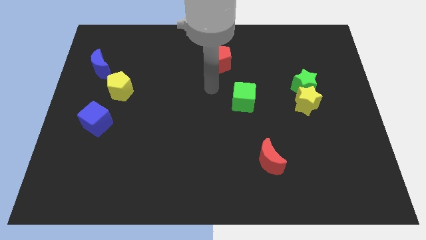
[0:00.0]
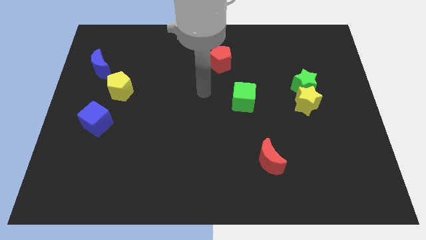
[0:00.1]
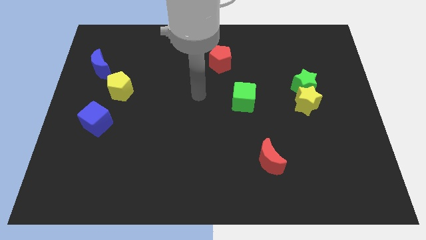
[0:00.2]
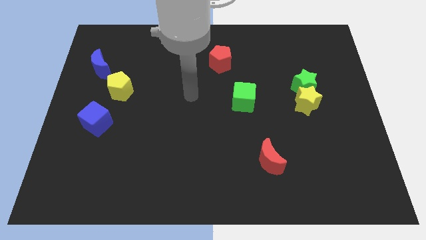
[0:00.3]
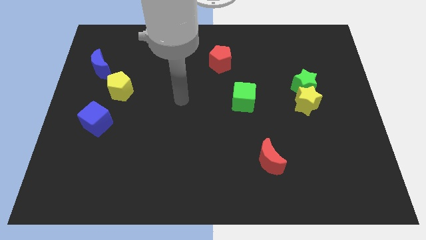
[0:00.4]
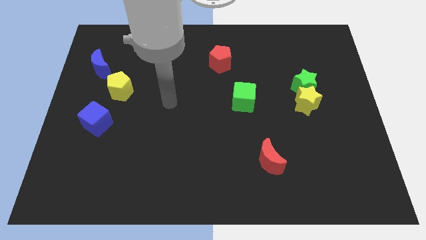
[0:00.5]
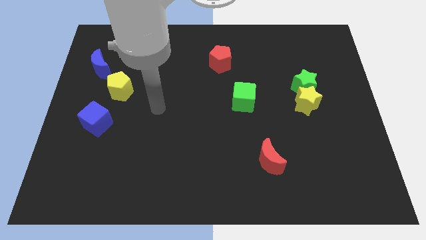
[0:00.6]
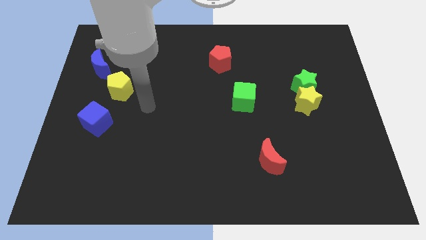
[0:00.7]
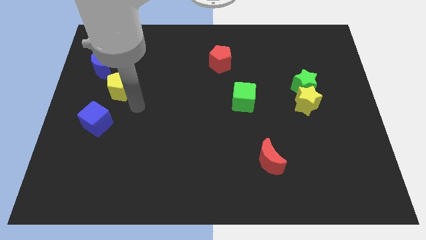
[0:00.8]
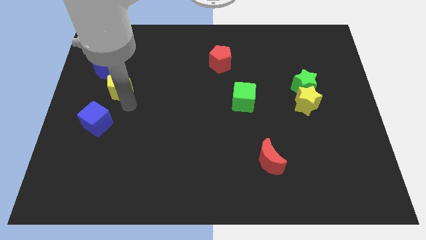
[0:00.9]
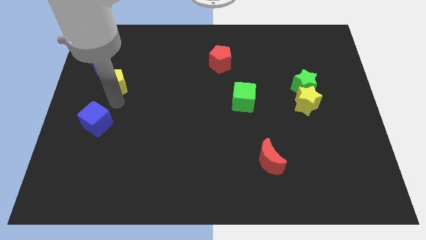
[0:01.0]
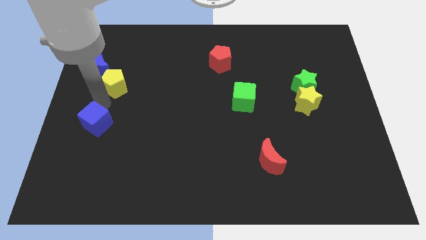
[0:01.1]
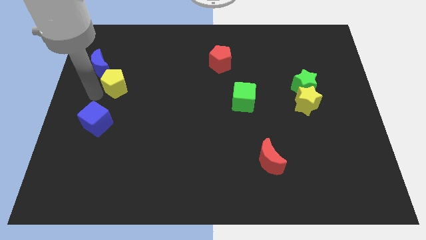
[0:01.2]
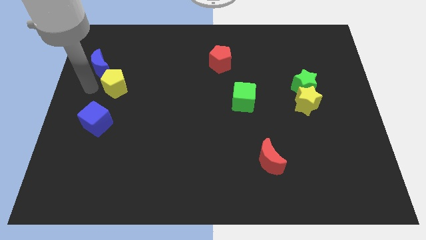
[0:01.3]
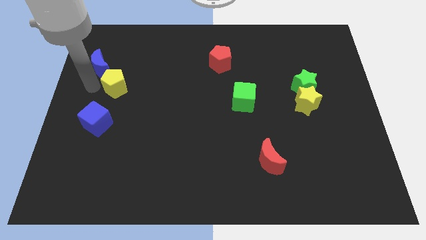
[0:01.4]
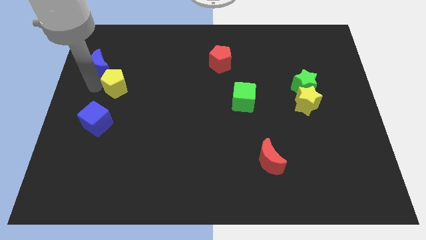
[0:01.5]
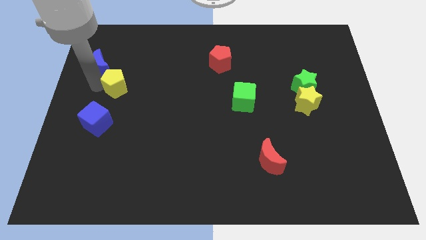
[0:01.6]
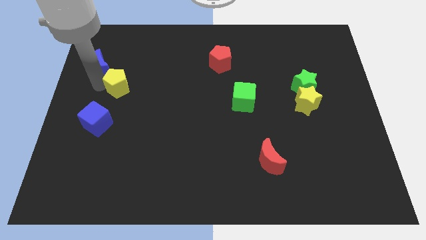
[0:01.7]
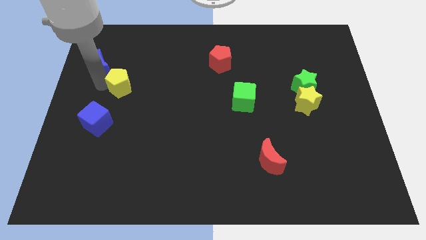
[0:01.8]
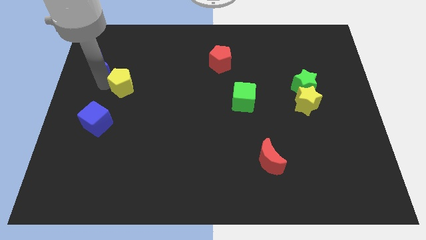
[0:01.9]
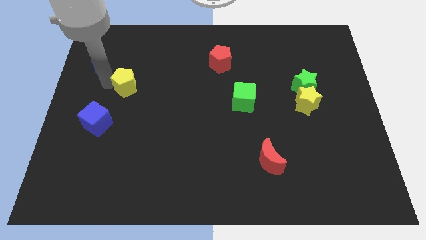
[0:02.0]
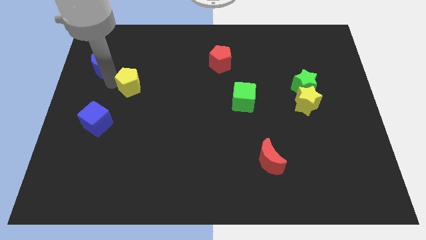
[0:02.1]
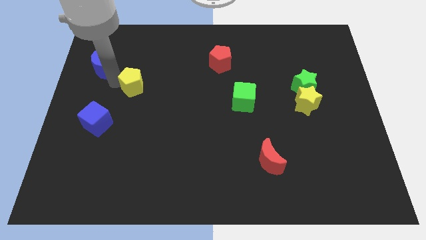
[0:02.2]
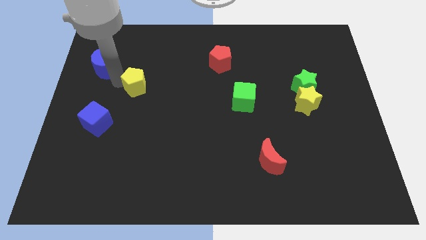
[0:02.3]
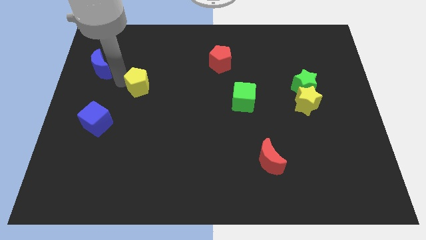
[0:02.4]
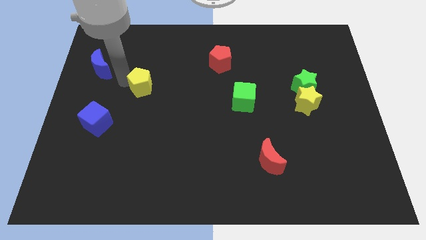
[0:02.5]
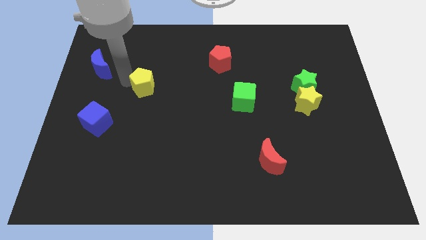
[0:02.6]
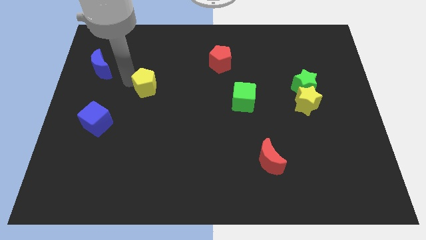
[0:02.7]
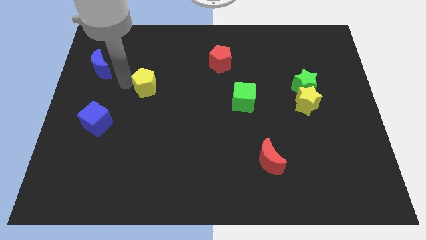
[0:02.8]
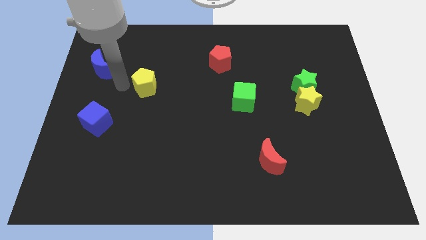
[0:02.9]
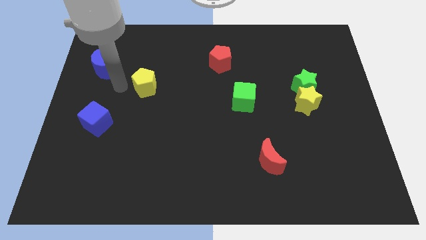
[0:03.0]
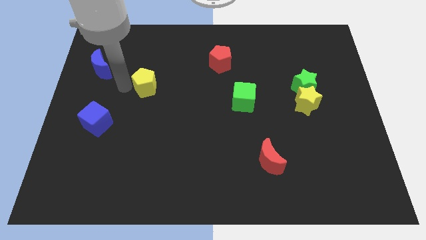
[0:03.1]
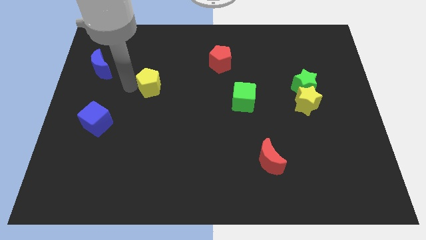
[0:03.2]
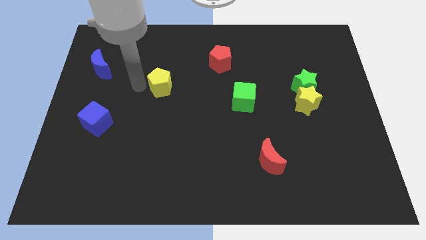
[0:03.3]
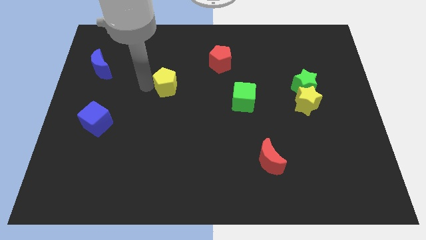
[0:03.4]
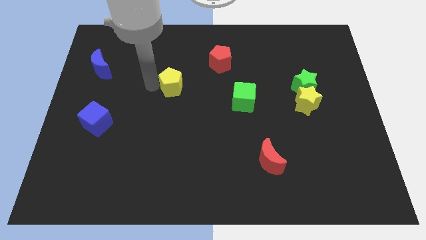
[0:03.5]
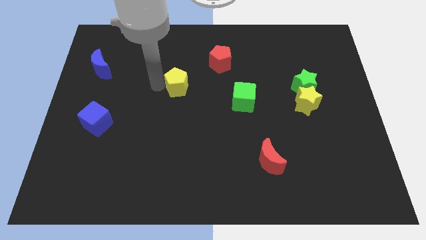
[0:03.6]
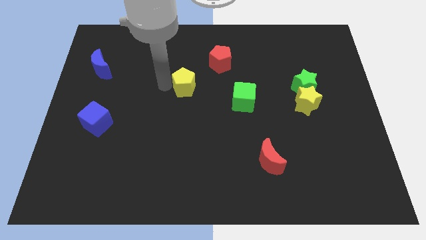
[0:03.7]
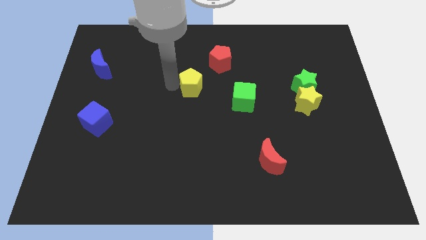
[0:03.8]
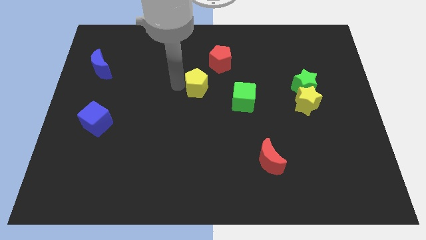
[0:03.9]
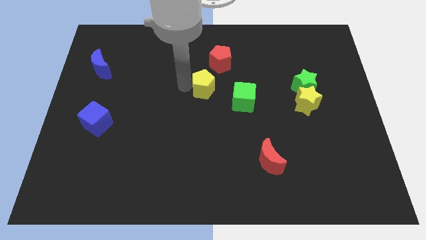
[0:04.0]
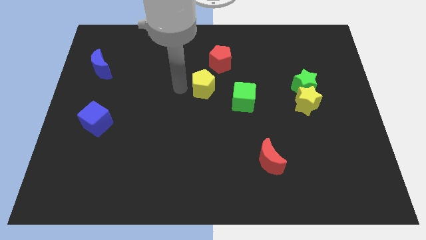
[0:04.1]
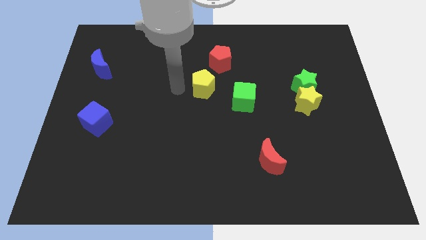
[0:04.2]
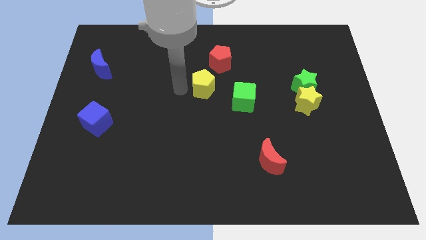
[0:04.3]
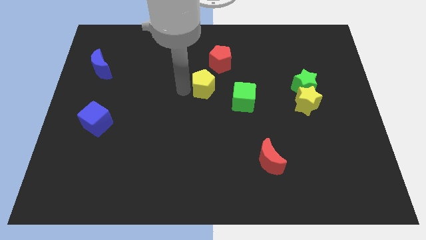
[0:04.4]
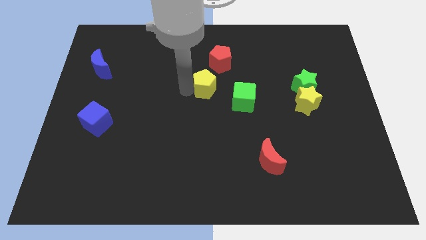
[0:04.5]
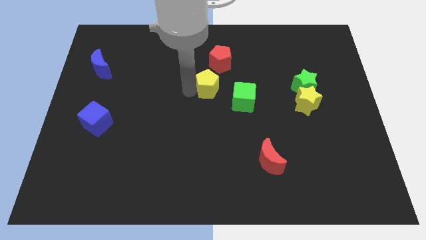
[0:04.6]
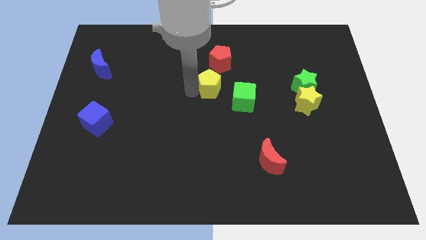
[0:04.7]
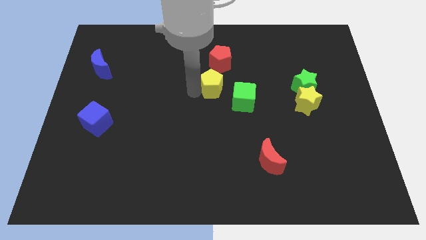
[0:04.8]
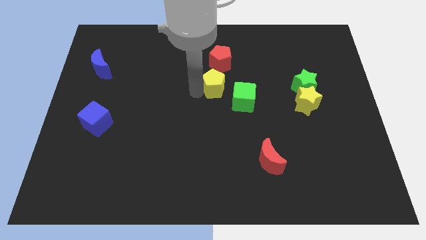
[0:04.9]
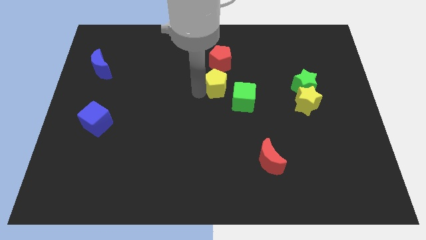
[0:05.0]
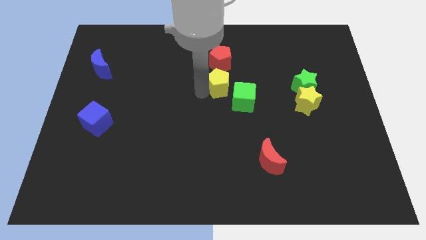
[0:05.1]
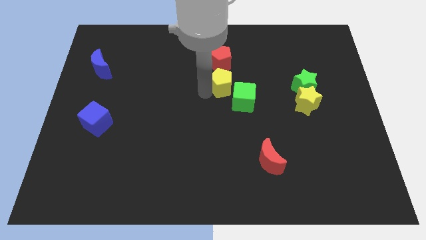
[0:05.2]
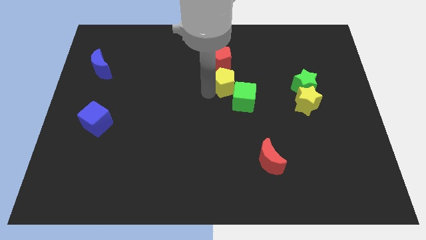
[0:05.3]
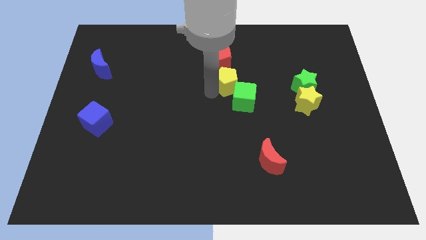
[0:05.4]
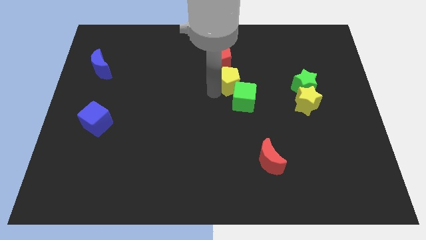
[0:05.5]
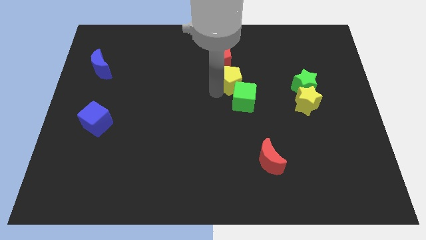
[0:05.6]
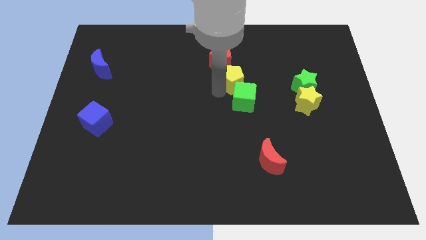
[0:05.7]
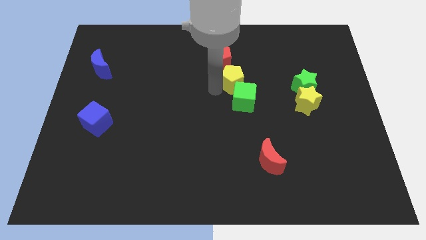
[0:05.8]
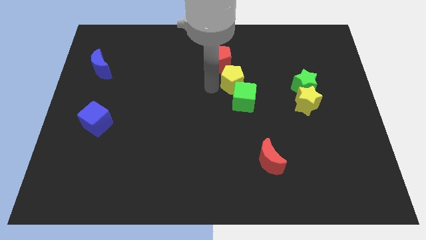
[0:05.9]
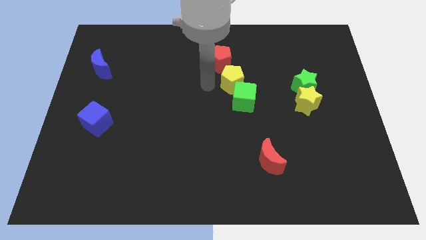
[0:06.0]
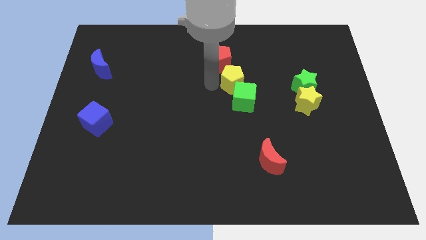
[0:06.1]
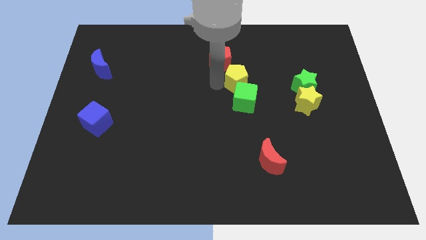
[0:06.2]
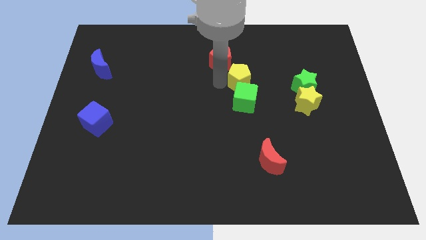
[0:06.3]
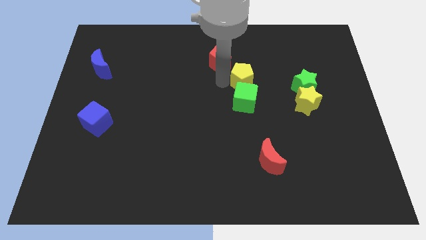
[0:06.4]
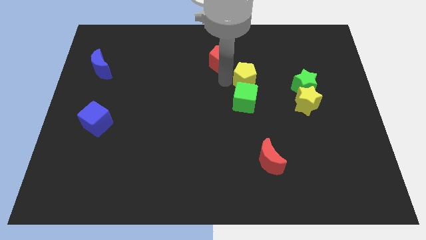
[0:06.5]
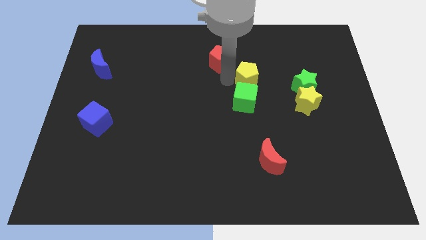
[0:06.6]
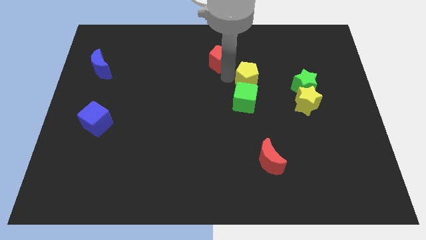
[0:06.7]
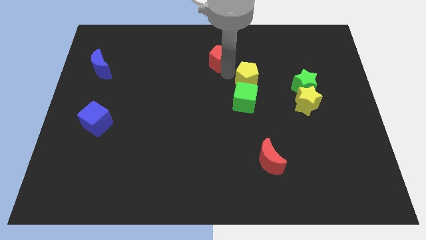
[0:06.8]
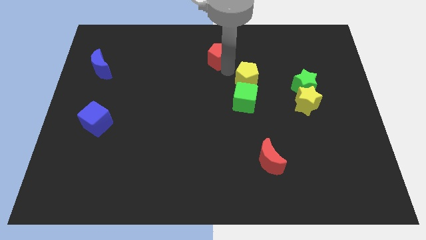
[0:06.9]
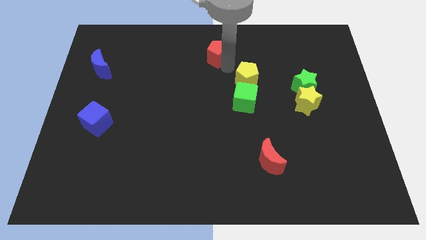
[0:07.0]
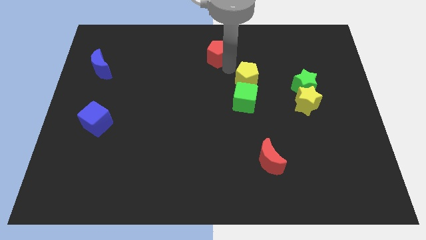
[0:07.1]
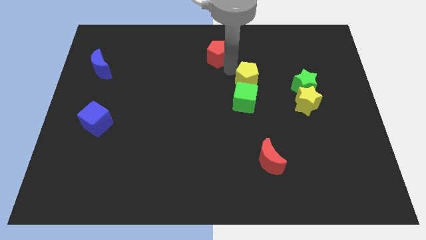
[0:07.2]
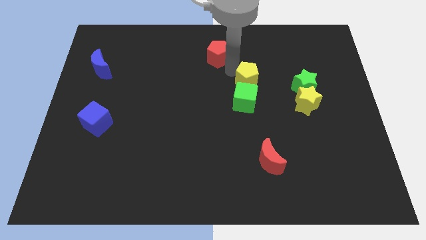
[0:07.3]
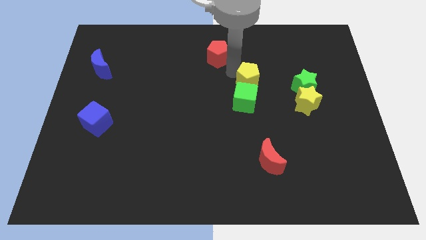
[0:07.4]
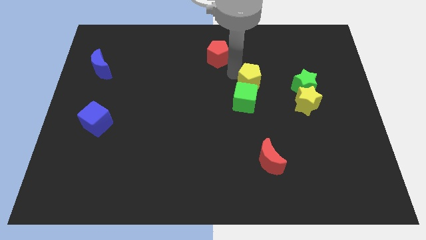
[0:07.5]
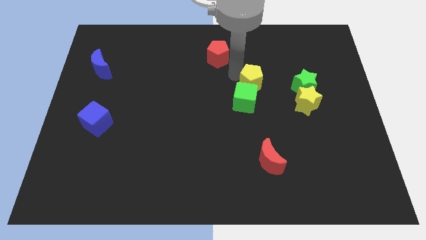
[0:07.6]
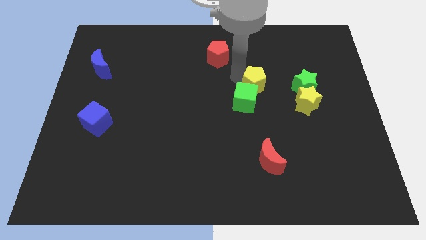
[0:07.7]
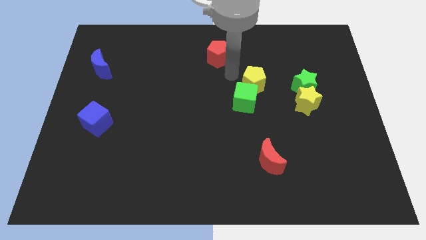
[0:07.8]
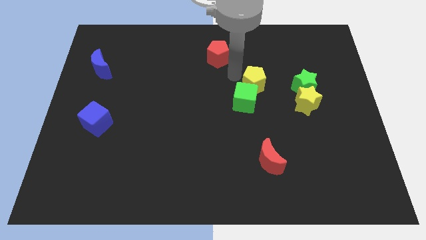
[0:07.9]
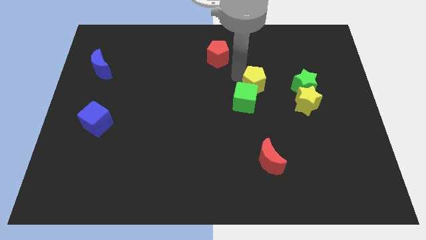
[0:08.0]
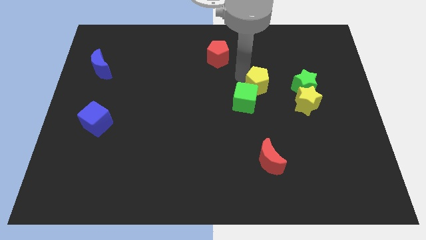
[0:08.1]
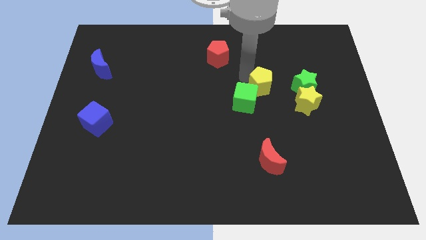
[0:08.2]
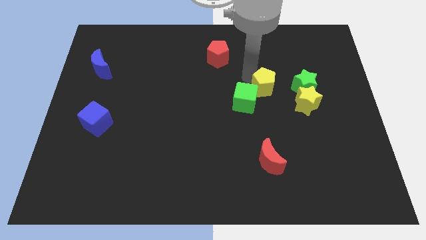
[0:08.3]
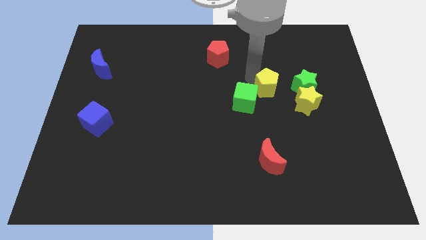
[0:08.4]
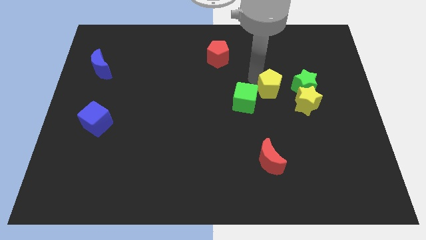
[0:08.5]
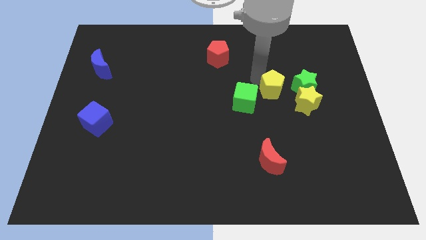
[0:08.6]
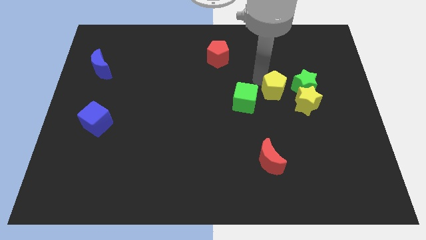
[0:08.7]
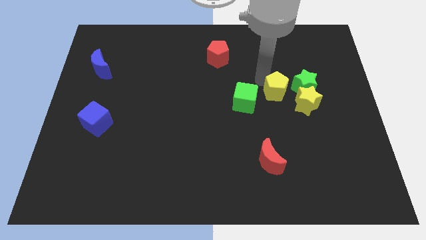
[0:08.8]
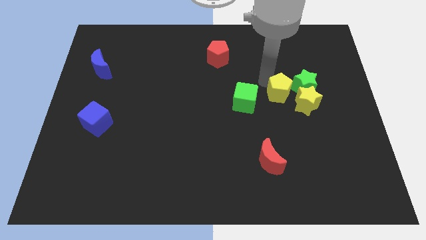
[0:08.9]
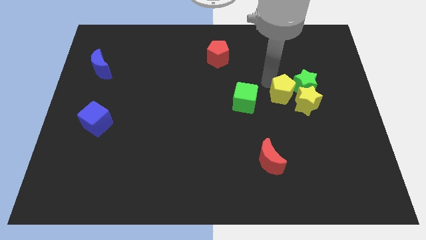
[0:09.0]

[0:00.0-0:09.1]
move the yellow pentagon next to the yellow star
